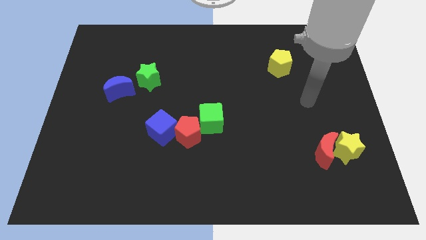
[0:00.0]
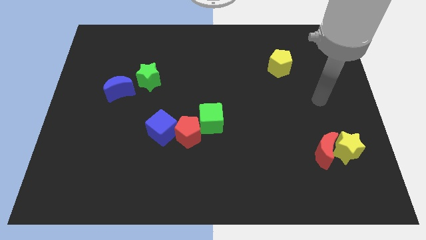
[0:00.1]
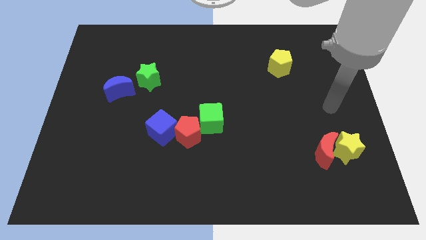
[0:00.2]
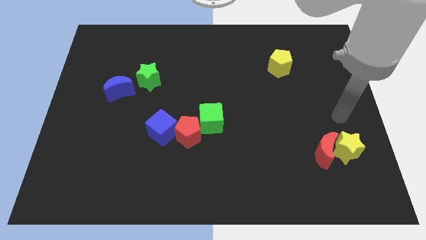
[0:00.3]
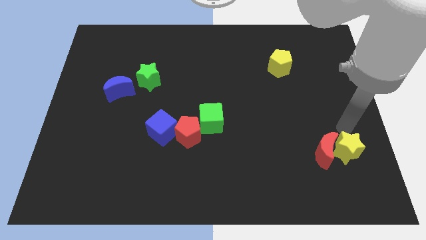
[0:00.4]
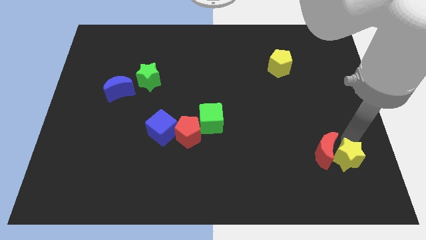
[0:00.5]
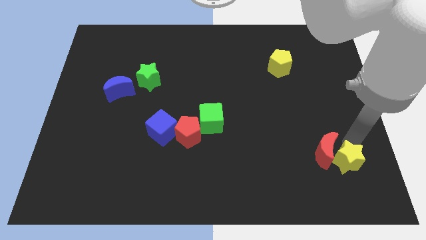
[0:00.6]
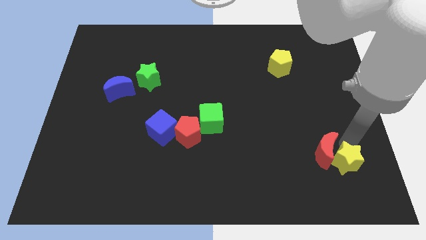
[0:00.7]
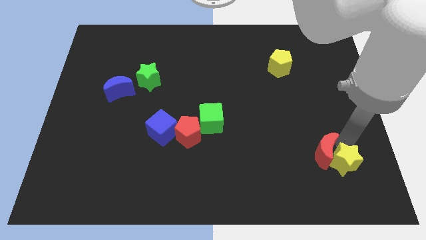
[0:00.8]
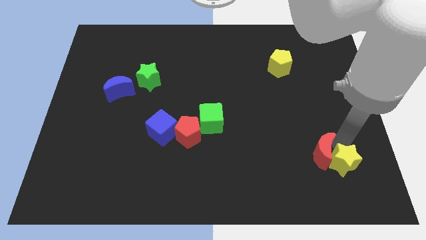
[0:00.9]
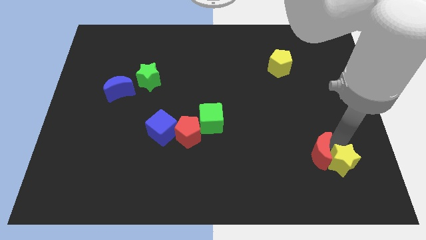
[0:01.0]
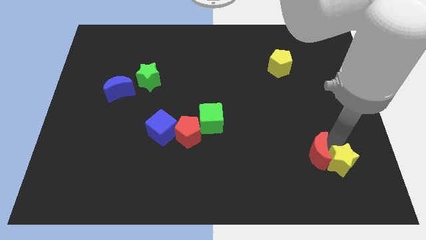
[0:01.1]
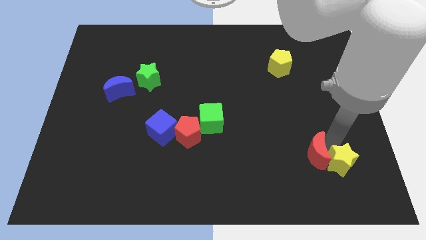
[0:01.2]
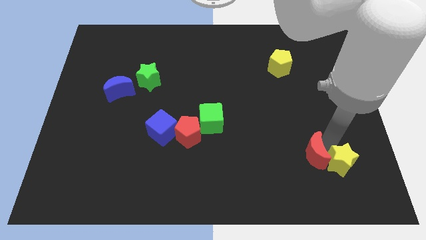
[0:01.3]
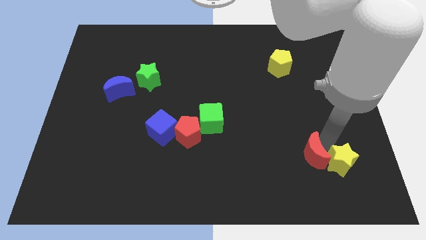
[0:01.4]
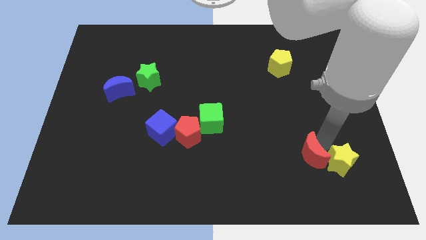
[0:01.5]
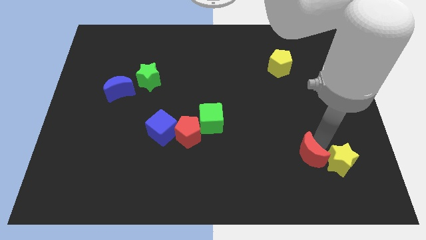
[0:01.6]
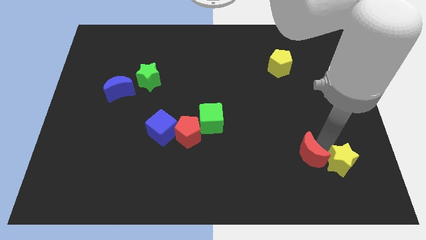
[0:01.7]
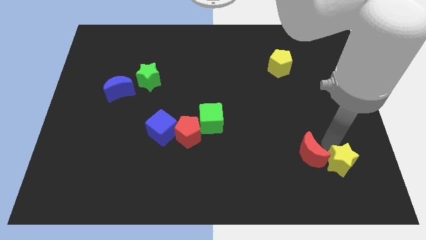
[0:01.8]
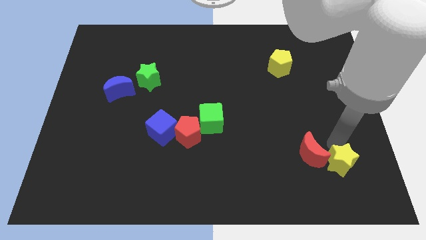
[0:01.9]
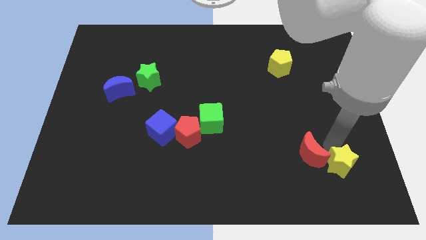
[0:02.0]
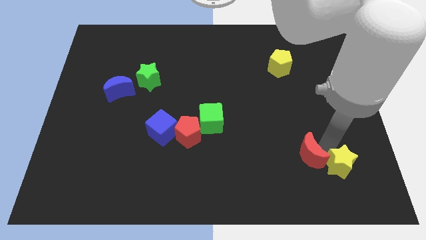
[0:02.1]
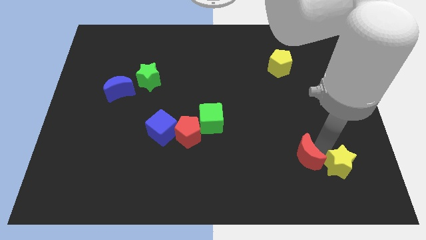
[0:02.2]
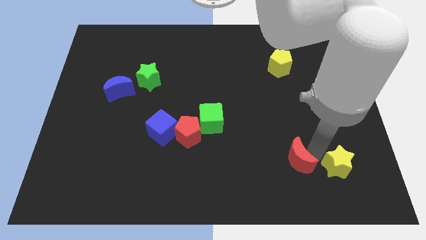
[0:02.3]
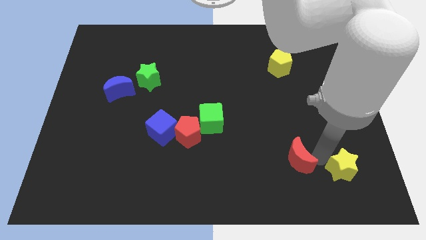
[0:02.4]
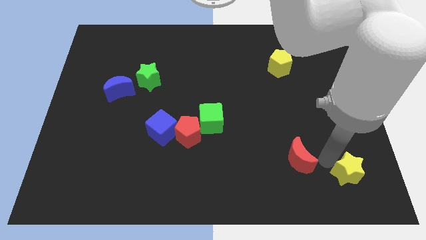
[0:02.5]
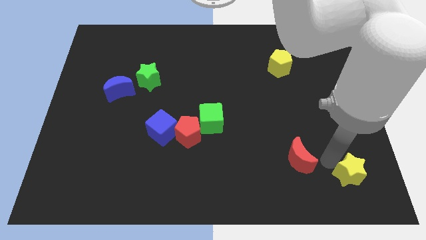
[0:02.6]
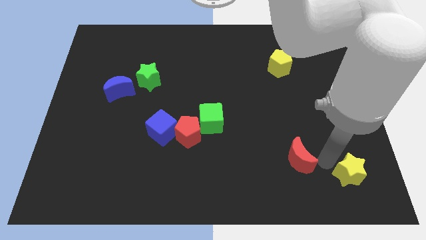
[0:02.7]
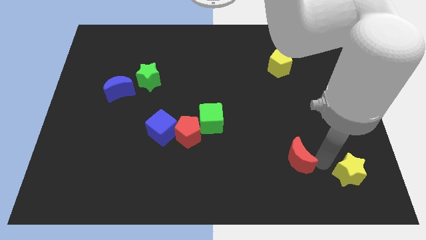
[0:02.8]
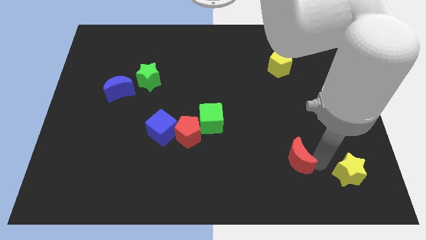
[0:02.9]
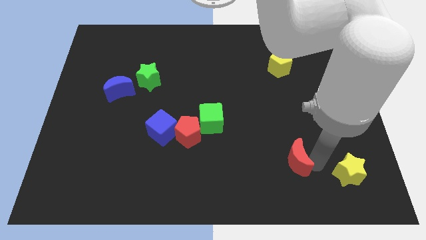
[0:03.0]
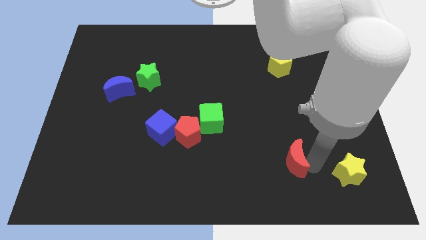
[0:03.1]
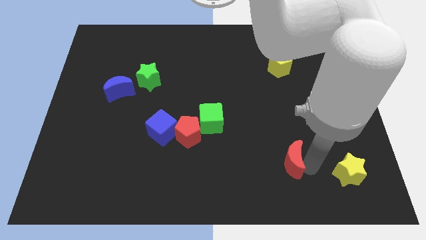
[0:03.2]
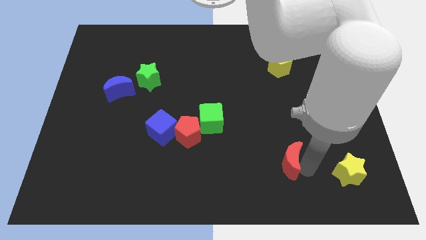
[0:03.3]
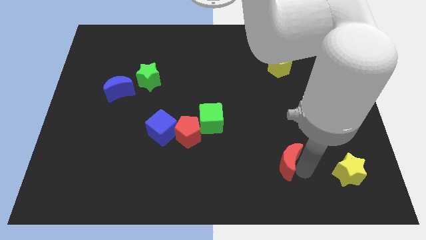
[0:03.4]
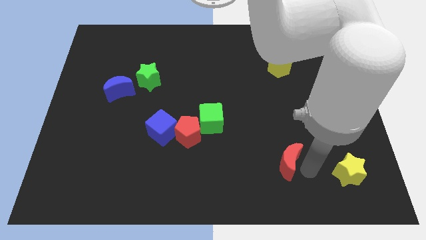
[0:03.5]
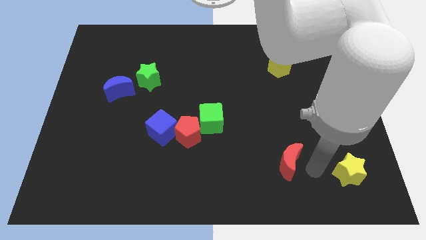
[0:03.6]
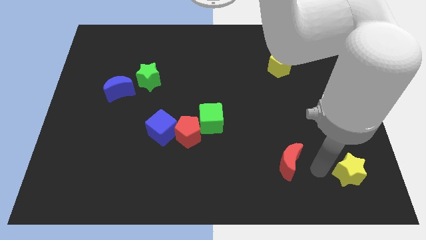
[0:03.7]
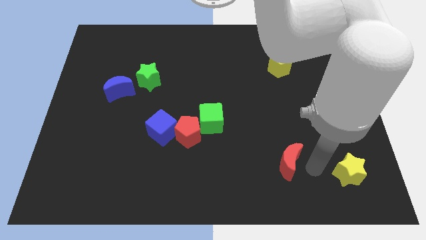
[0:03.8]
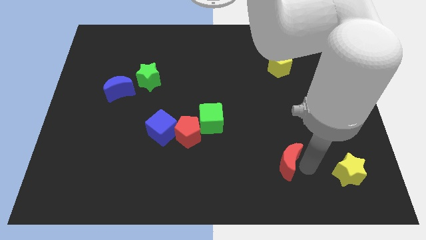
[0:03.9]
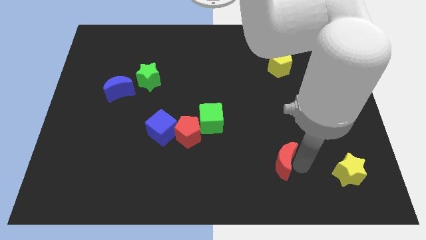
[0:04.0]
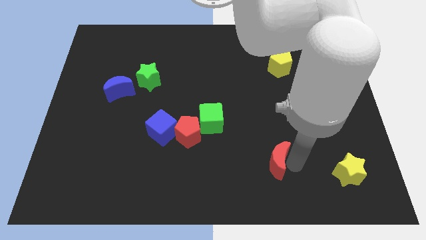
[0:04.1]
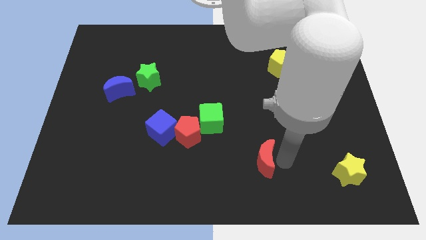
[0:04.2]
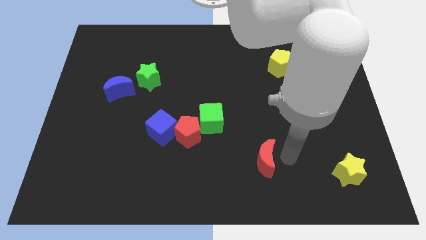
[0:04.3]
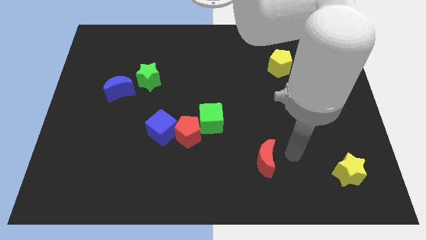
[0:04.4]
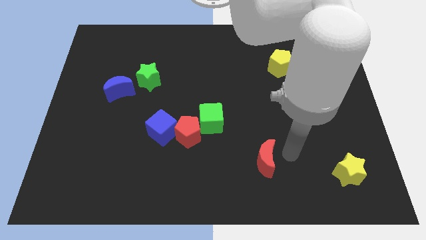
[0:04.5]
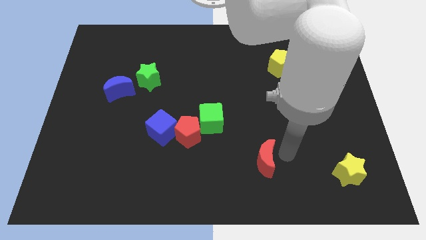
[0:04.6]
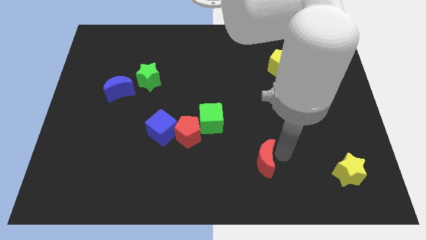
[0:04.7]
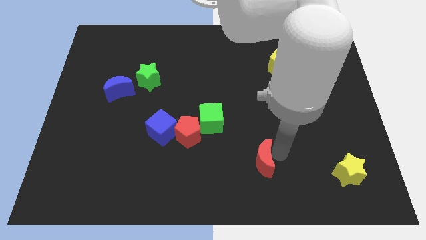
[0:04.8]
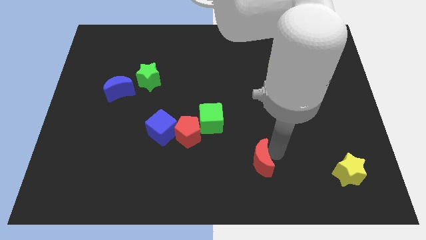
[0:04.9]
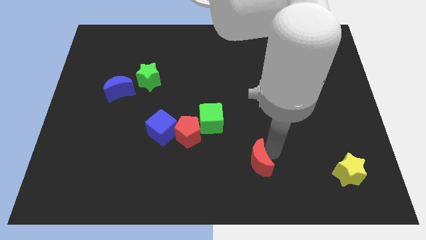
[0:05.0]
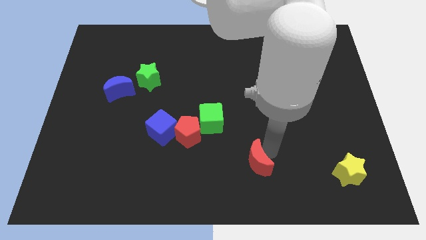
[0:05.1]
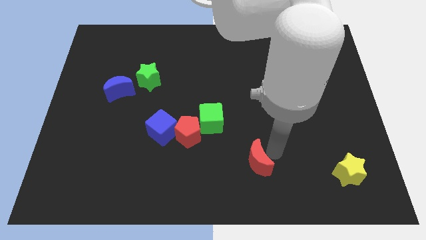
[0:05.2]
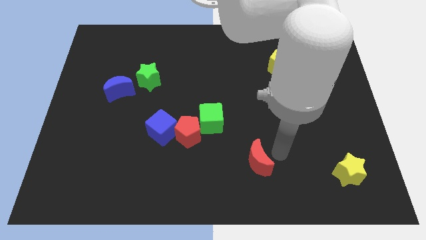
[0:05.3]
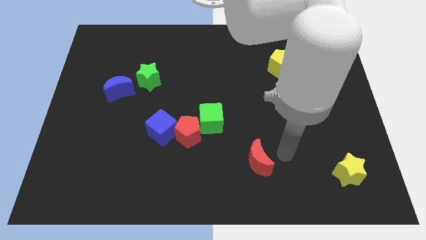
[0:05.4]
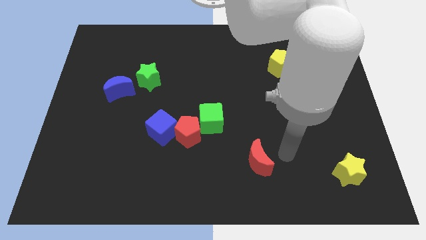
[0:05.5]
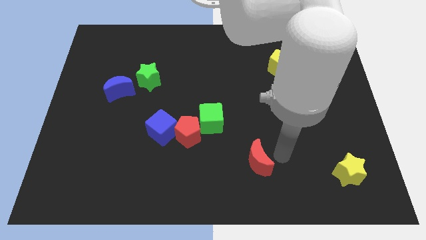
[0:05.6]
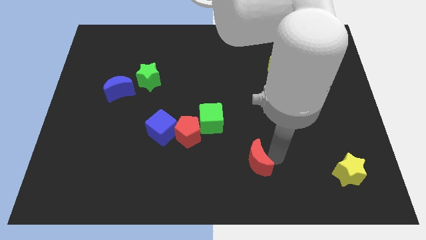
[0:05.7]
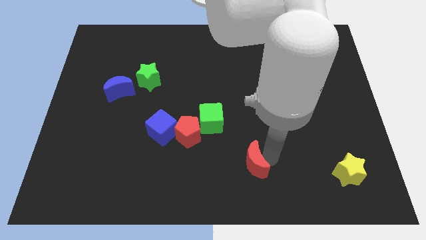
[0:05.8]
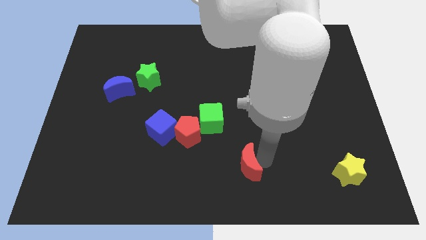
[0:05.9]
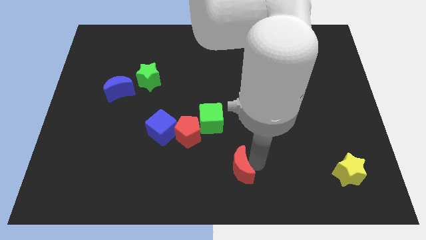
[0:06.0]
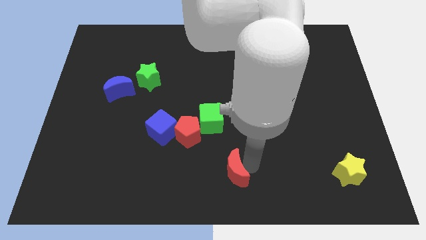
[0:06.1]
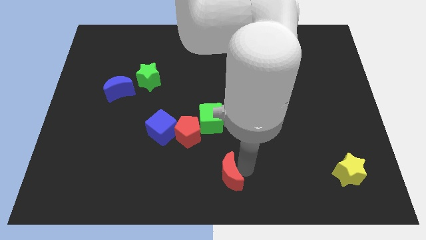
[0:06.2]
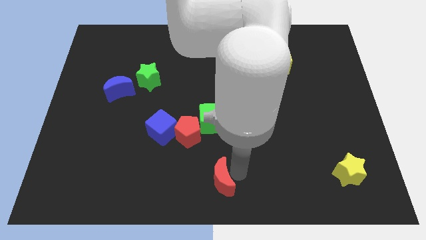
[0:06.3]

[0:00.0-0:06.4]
move the red moon to the left

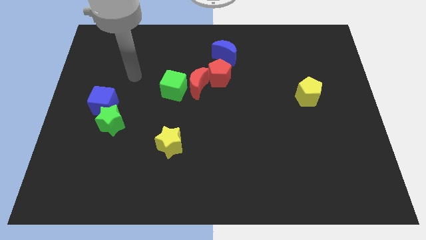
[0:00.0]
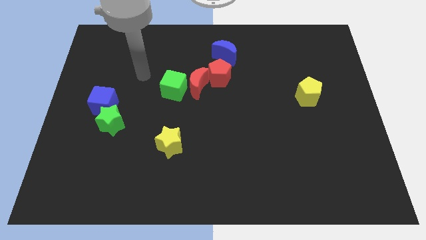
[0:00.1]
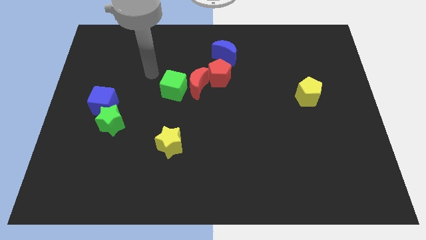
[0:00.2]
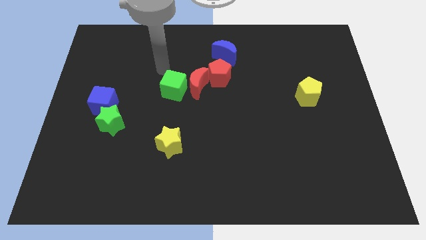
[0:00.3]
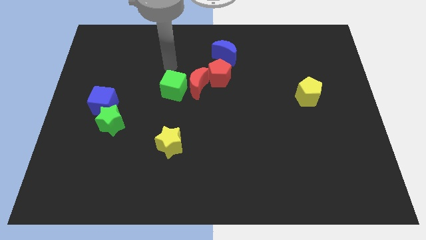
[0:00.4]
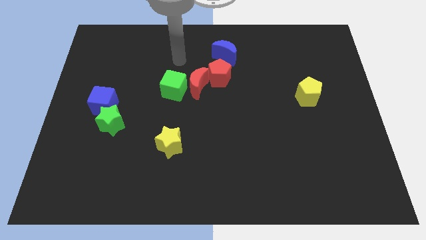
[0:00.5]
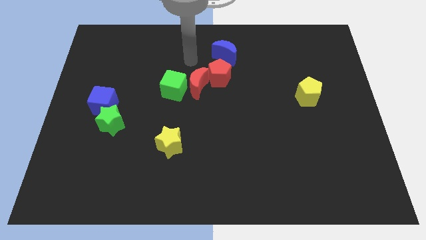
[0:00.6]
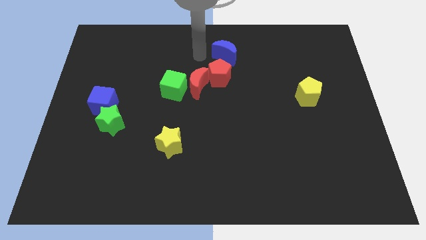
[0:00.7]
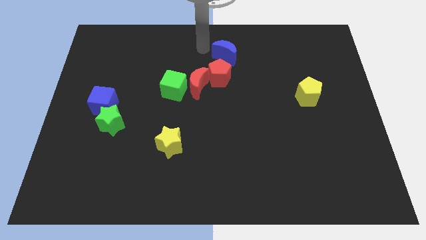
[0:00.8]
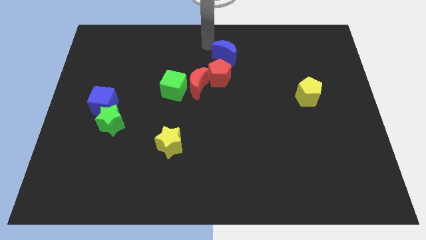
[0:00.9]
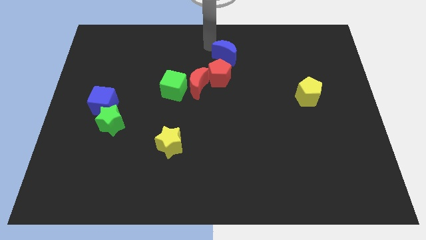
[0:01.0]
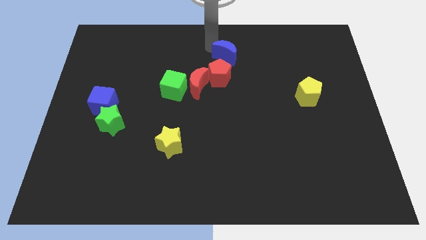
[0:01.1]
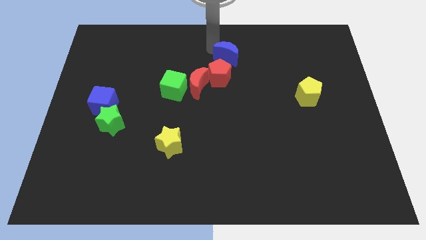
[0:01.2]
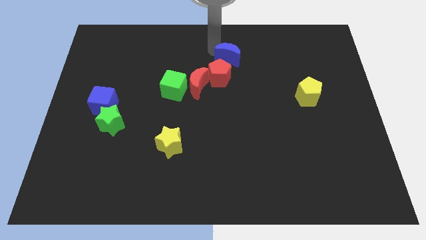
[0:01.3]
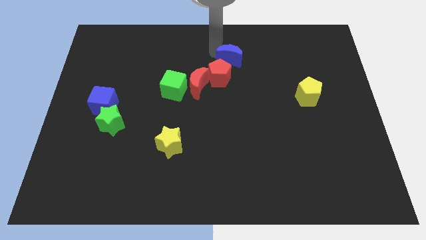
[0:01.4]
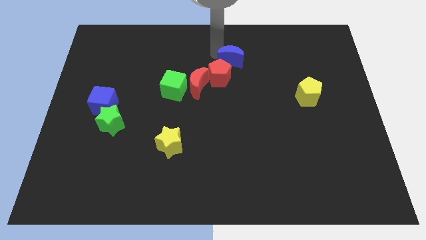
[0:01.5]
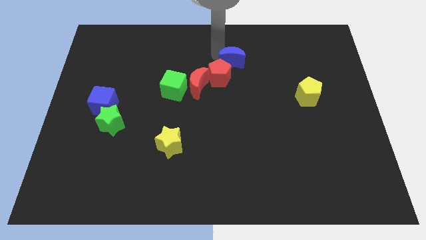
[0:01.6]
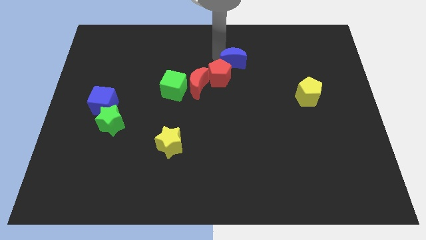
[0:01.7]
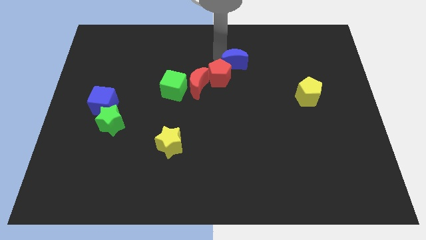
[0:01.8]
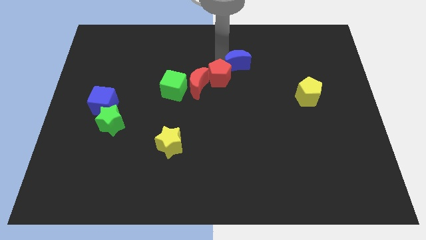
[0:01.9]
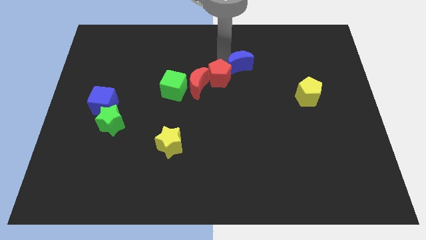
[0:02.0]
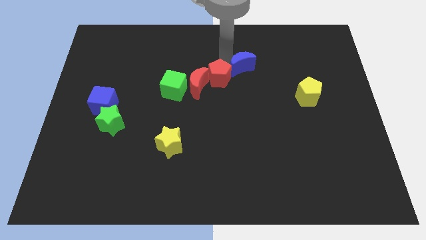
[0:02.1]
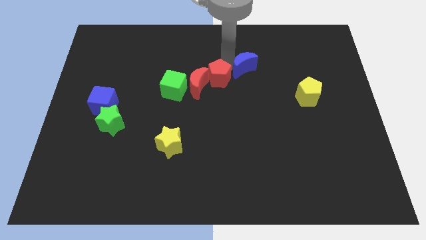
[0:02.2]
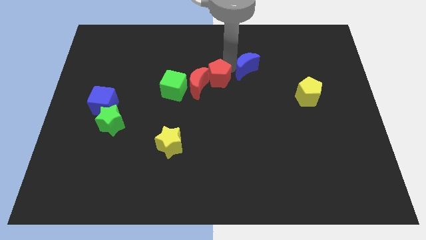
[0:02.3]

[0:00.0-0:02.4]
push the blue moon downwards and then to the right a little bit
